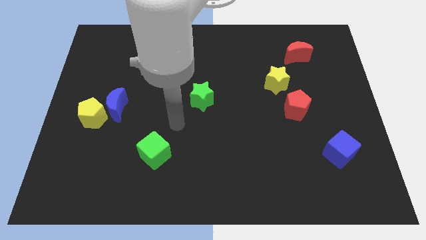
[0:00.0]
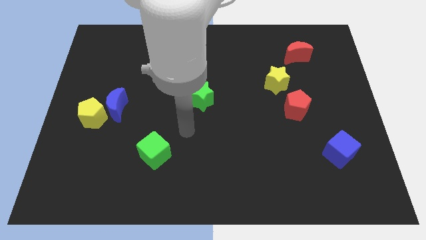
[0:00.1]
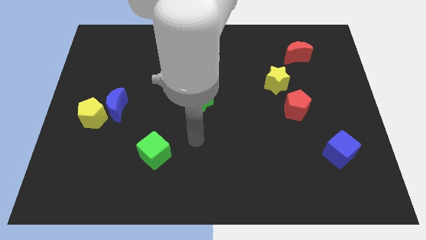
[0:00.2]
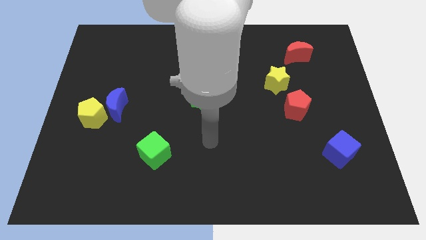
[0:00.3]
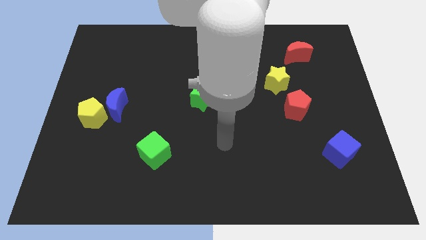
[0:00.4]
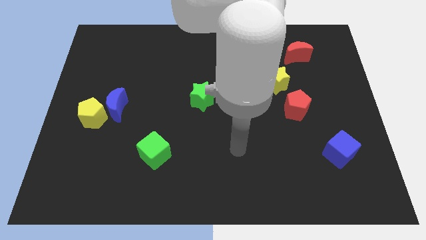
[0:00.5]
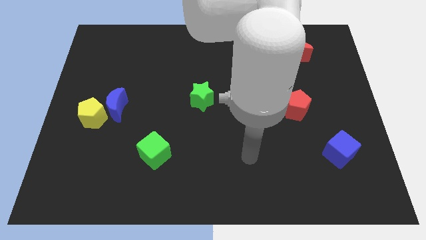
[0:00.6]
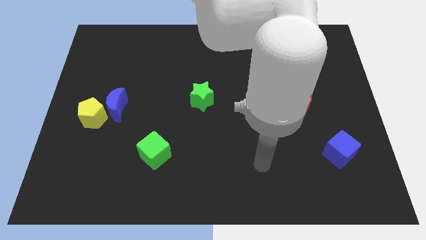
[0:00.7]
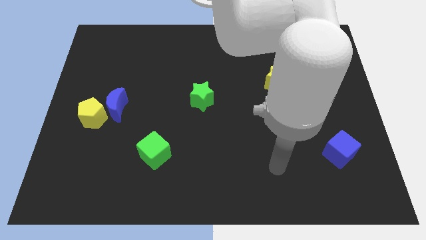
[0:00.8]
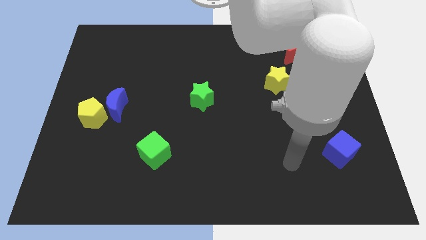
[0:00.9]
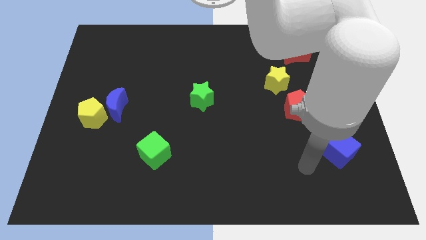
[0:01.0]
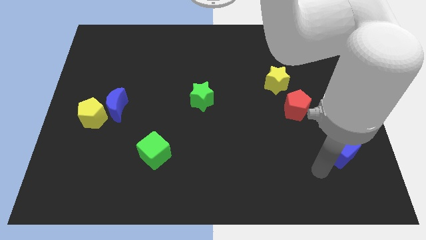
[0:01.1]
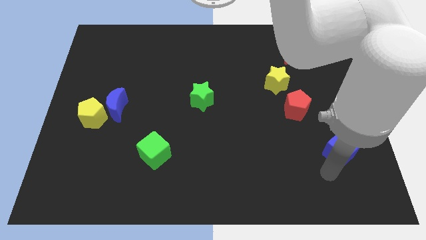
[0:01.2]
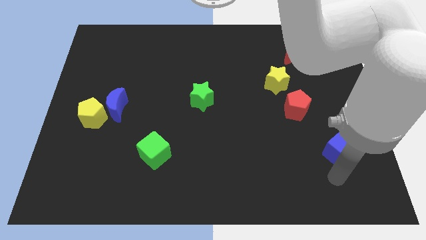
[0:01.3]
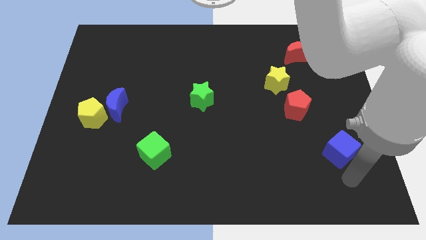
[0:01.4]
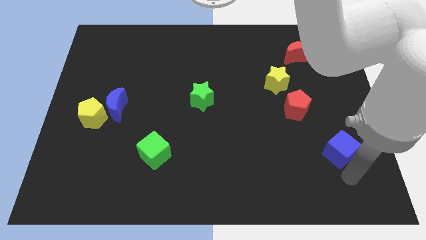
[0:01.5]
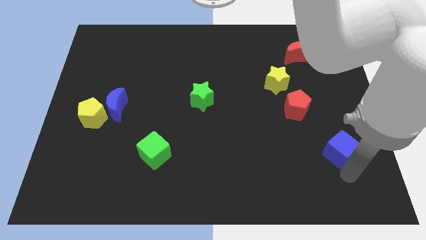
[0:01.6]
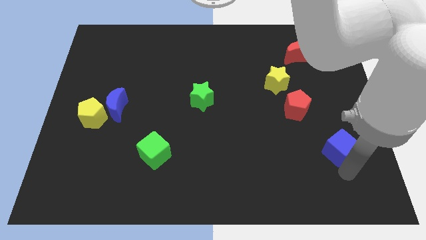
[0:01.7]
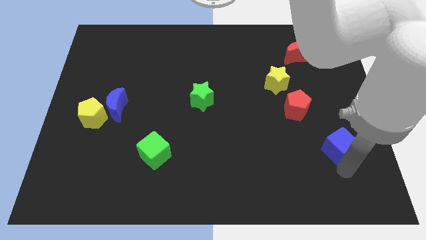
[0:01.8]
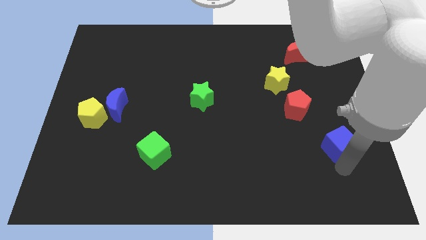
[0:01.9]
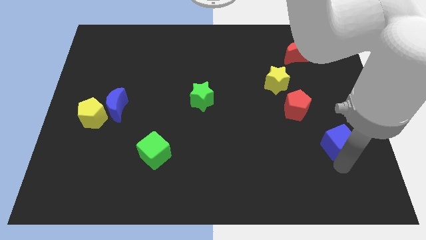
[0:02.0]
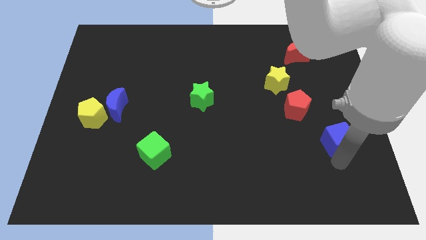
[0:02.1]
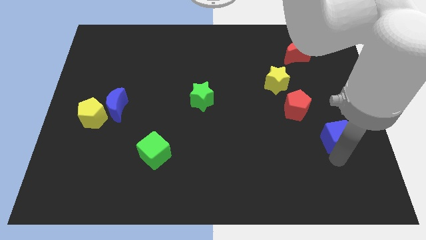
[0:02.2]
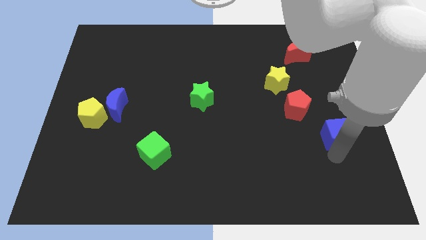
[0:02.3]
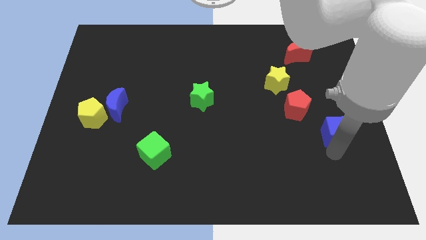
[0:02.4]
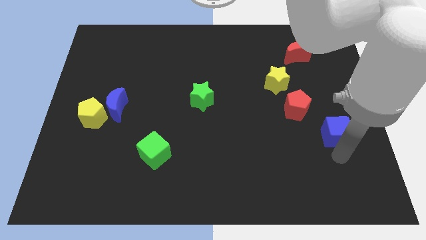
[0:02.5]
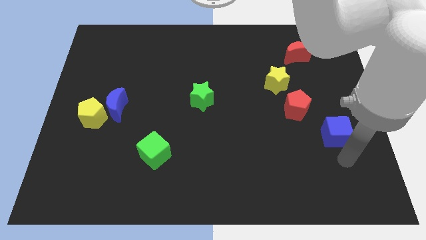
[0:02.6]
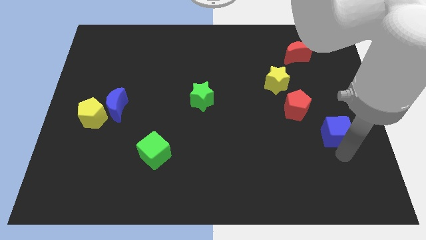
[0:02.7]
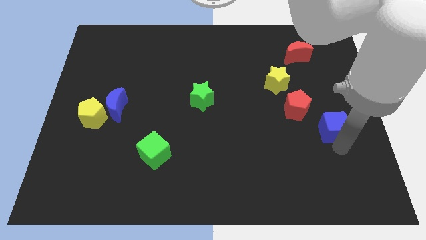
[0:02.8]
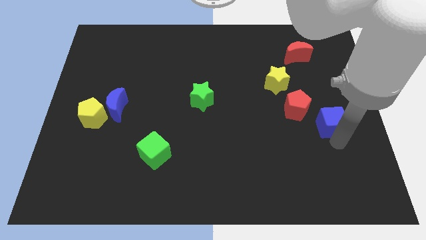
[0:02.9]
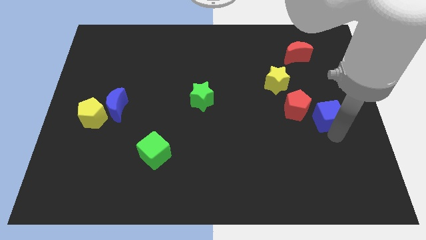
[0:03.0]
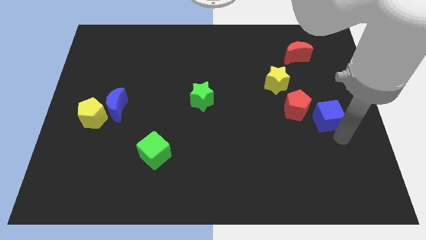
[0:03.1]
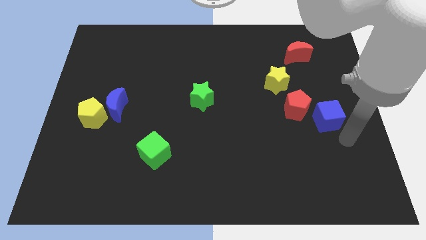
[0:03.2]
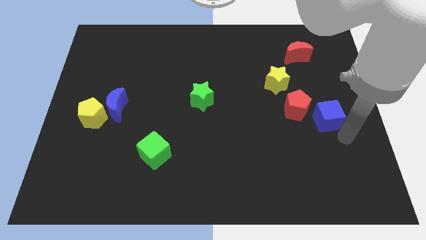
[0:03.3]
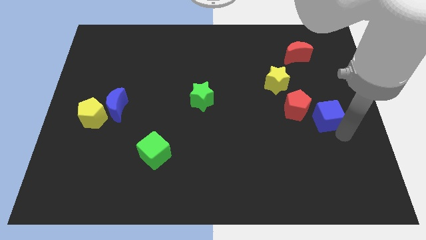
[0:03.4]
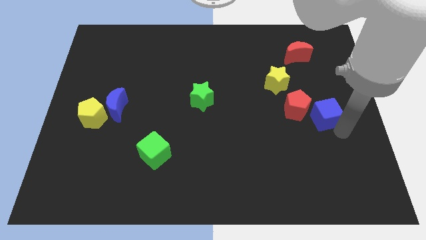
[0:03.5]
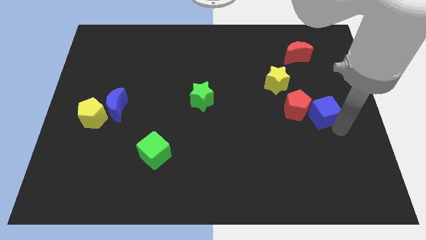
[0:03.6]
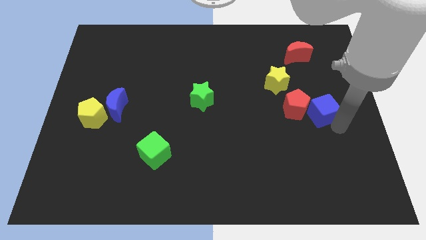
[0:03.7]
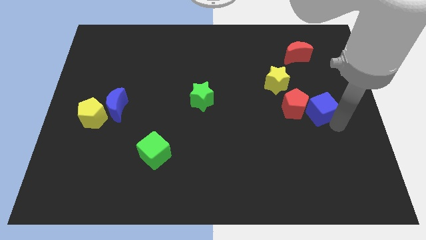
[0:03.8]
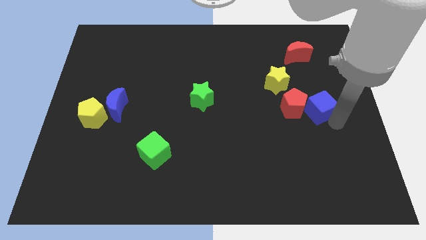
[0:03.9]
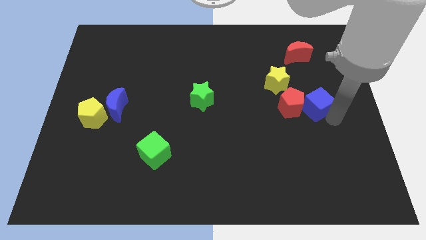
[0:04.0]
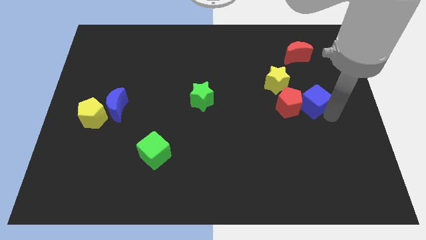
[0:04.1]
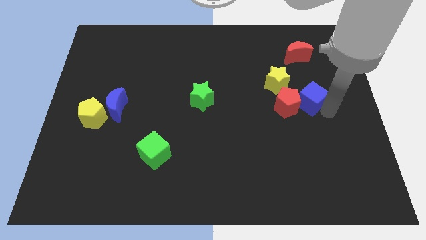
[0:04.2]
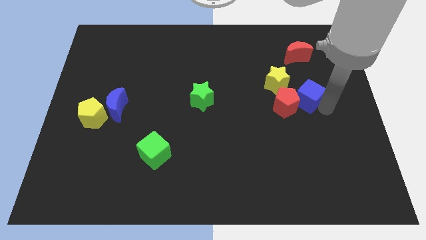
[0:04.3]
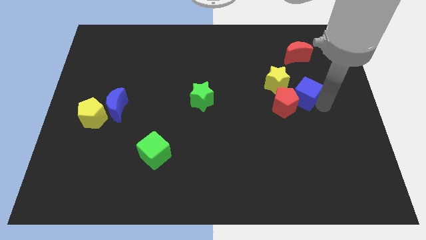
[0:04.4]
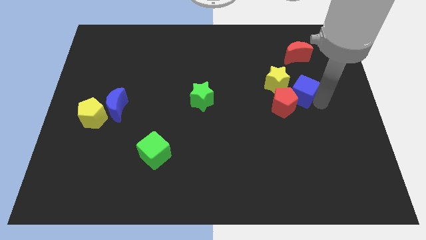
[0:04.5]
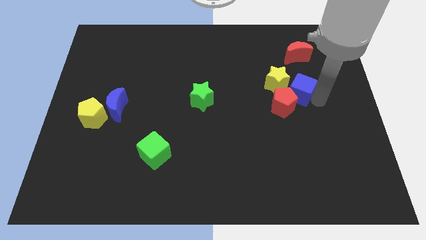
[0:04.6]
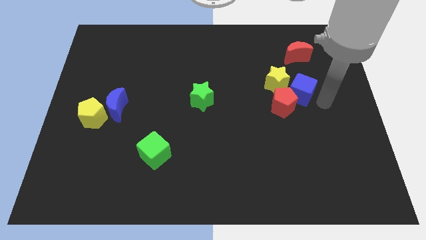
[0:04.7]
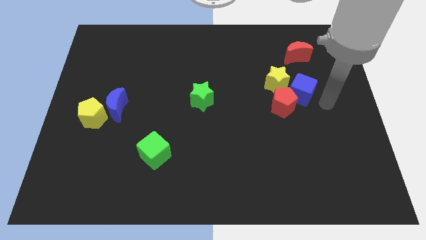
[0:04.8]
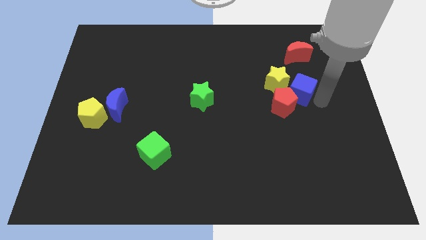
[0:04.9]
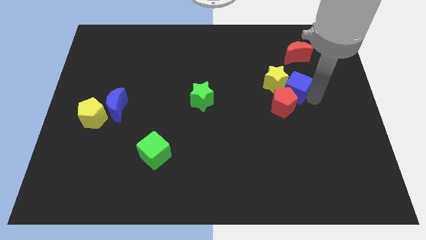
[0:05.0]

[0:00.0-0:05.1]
put the blue cube next to the yellow star

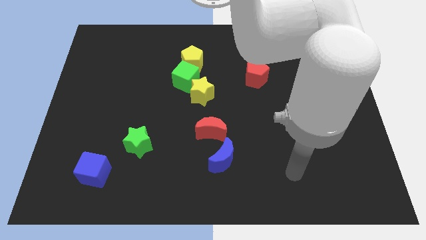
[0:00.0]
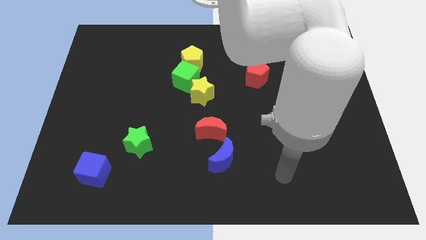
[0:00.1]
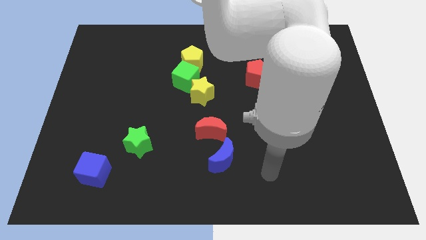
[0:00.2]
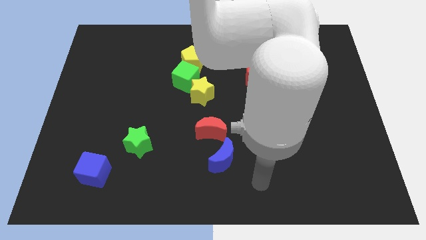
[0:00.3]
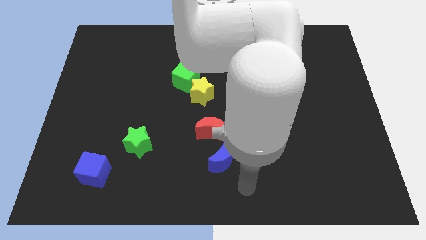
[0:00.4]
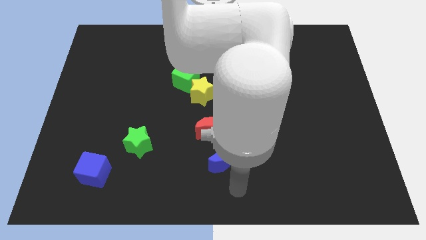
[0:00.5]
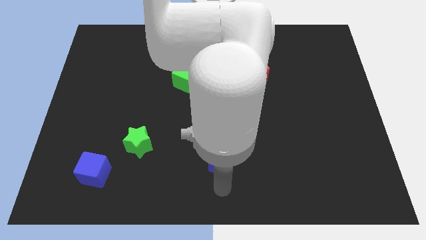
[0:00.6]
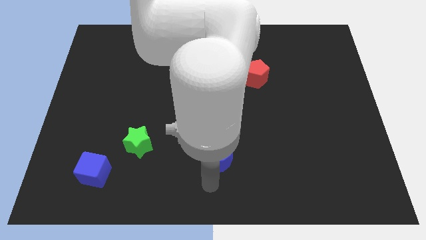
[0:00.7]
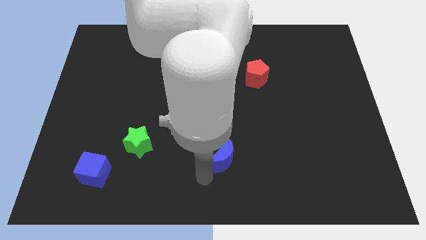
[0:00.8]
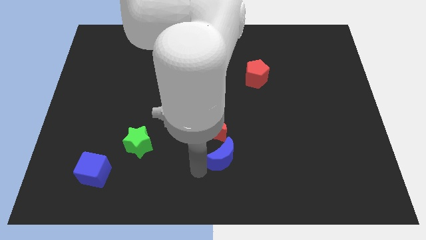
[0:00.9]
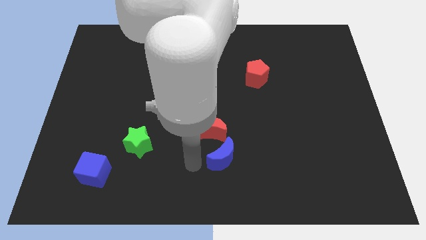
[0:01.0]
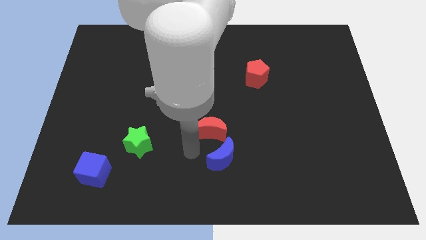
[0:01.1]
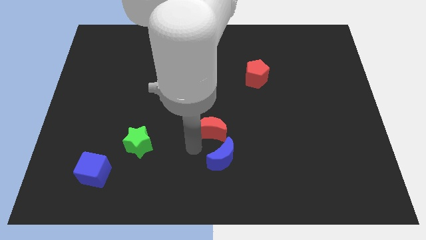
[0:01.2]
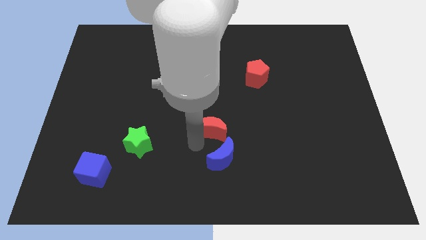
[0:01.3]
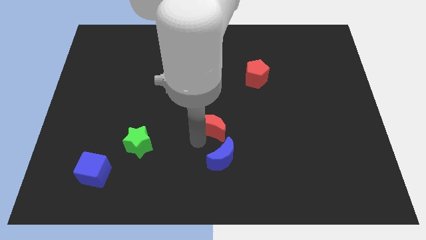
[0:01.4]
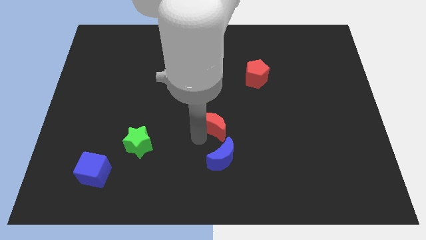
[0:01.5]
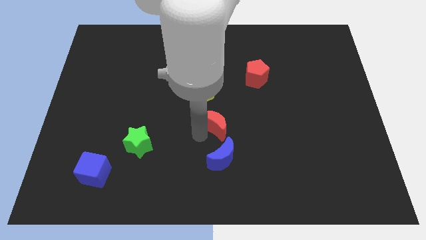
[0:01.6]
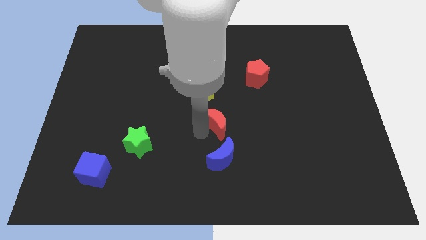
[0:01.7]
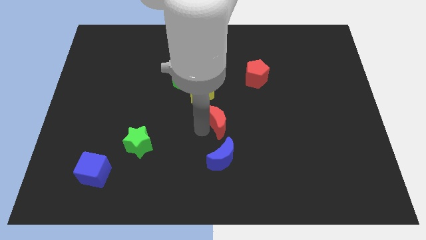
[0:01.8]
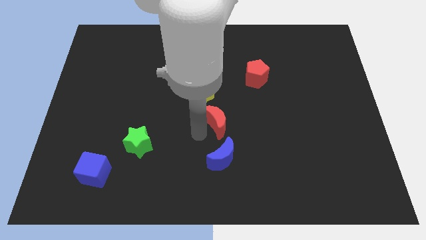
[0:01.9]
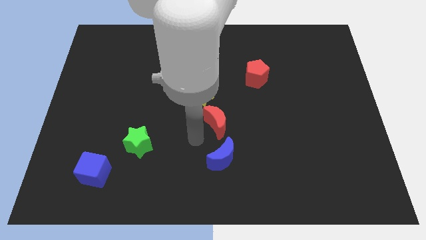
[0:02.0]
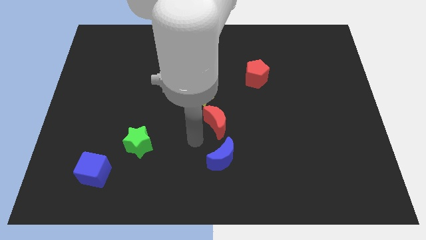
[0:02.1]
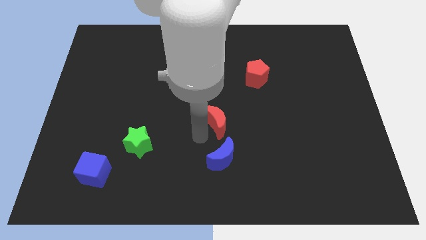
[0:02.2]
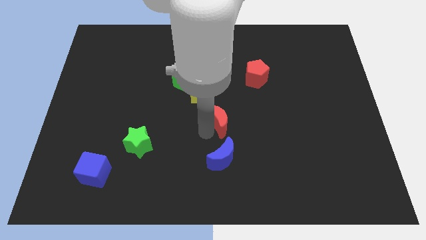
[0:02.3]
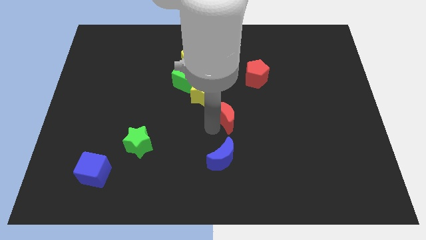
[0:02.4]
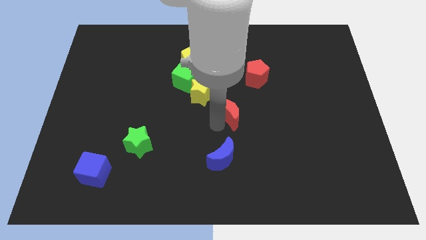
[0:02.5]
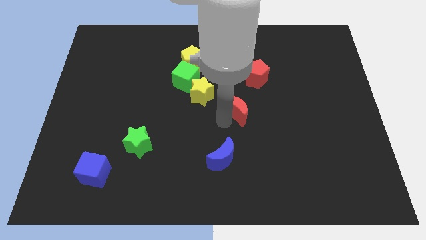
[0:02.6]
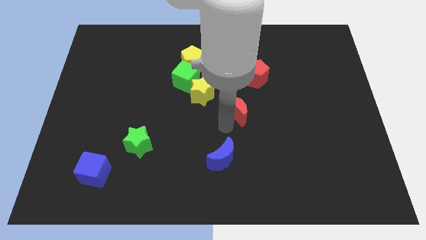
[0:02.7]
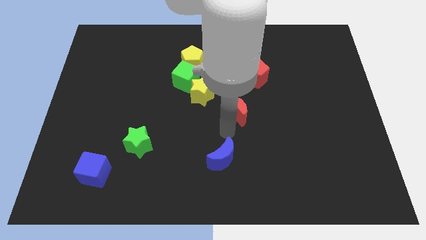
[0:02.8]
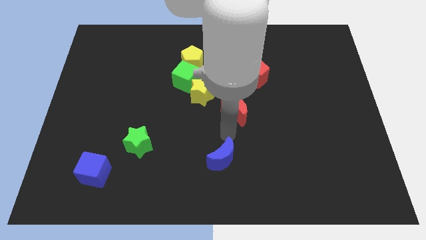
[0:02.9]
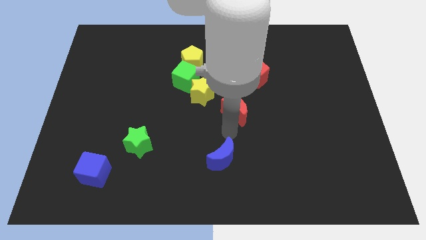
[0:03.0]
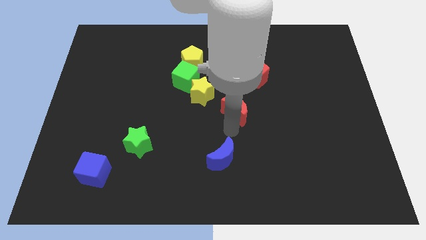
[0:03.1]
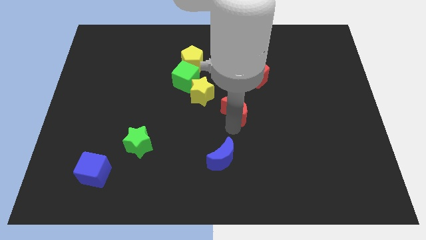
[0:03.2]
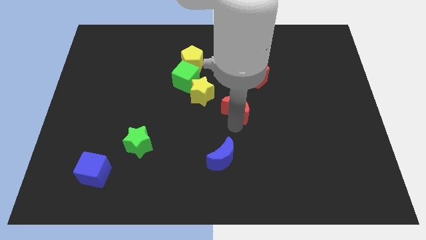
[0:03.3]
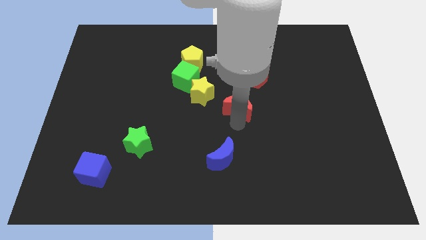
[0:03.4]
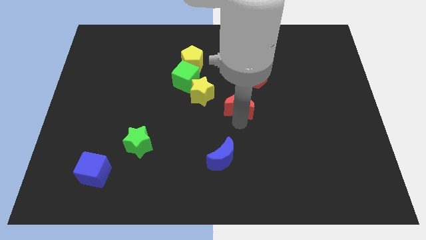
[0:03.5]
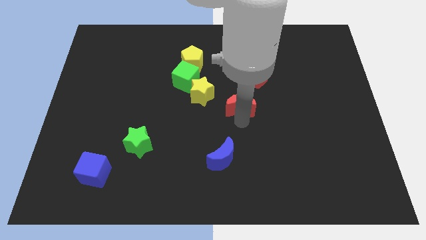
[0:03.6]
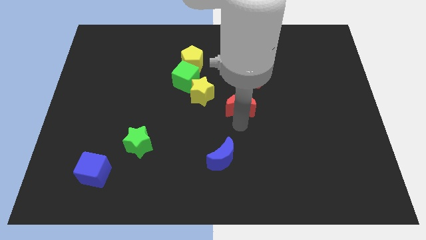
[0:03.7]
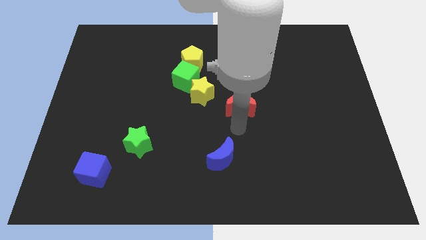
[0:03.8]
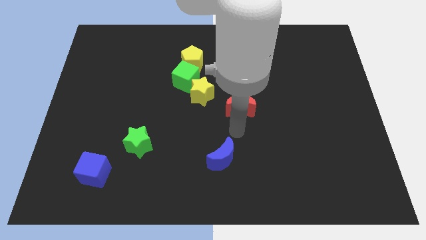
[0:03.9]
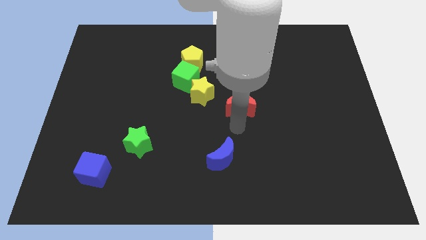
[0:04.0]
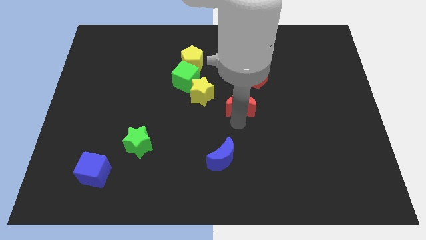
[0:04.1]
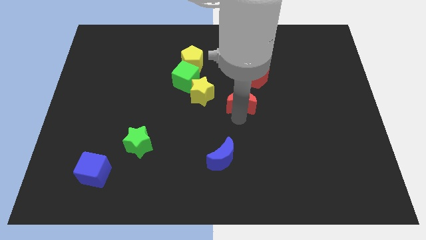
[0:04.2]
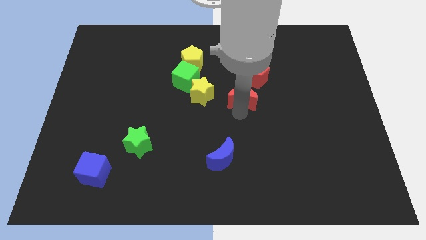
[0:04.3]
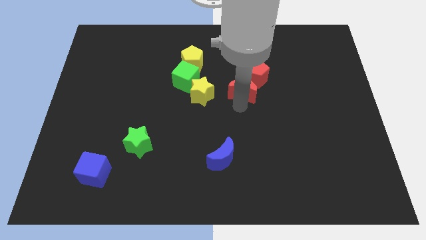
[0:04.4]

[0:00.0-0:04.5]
slide the red moon towards the red pentagon
